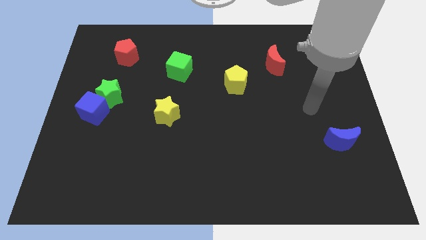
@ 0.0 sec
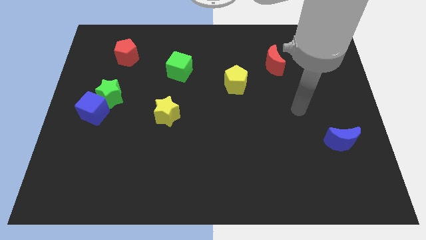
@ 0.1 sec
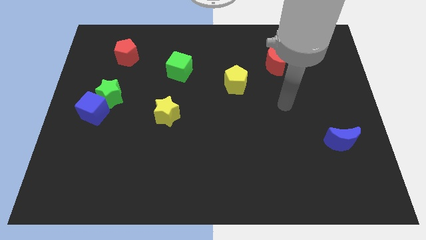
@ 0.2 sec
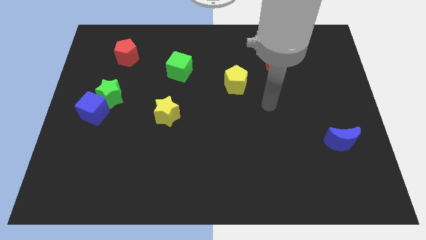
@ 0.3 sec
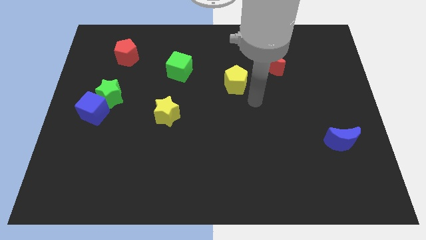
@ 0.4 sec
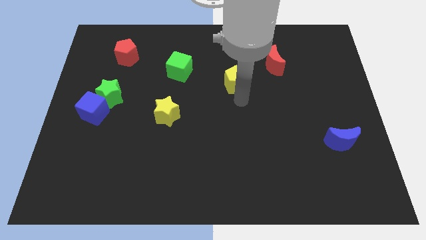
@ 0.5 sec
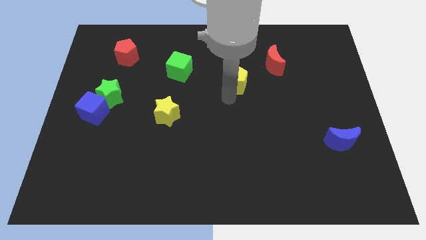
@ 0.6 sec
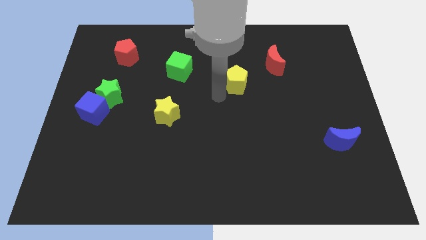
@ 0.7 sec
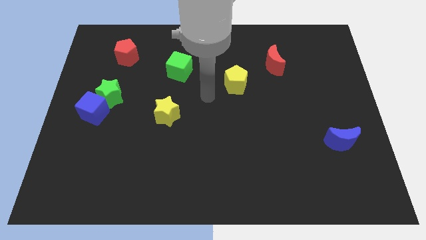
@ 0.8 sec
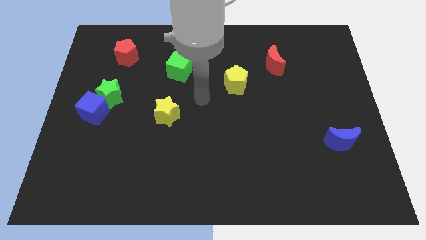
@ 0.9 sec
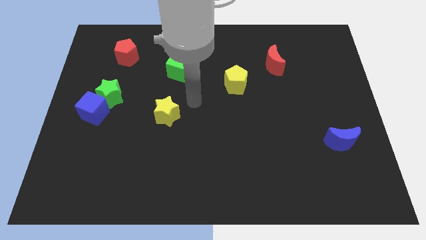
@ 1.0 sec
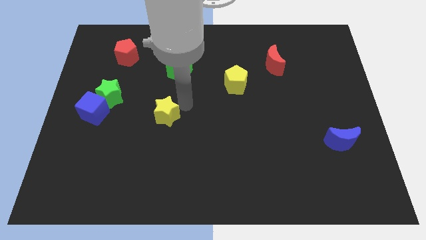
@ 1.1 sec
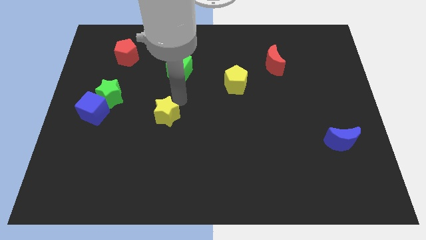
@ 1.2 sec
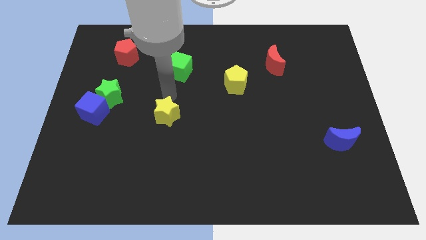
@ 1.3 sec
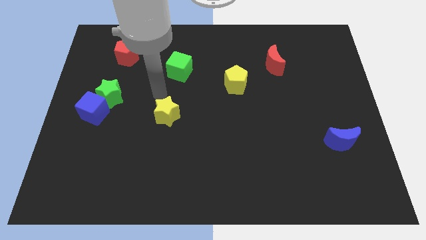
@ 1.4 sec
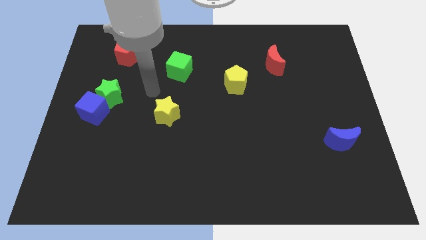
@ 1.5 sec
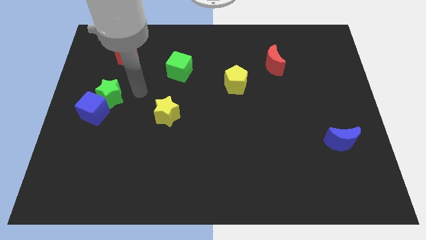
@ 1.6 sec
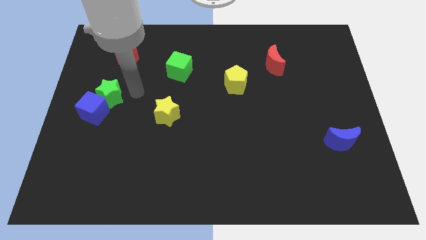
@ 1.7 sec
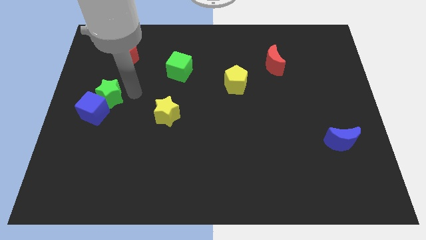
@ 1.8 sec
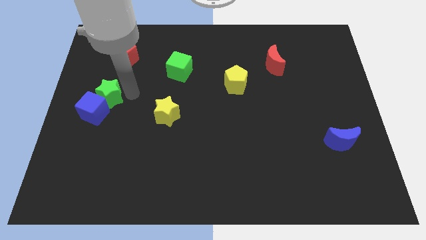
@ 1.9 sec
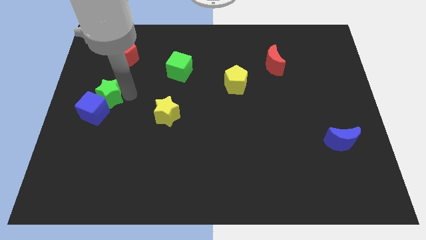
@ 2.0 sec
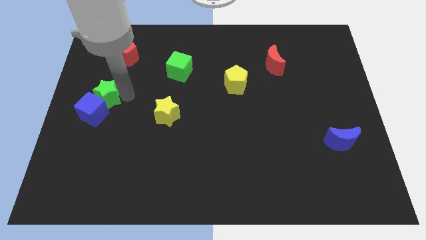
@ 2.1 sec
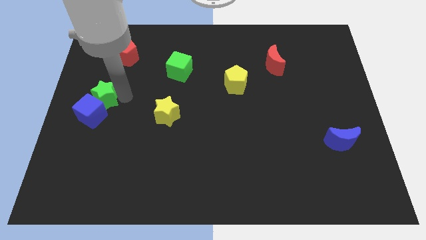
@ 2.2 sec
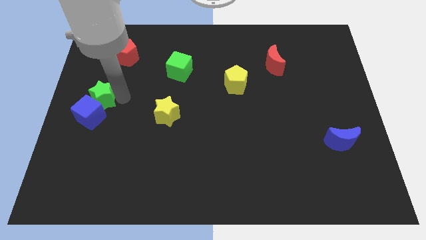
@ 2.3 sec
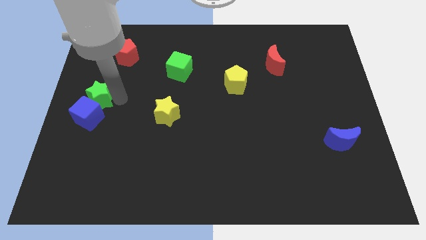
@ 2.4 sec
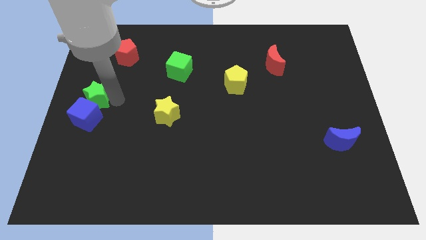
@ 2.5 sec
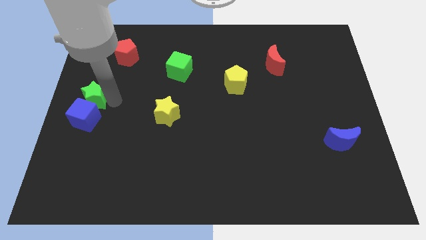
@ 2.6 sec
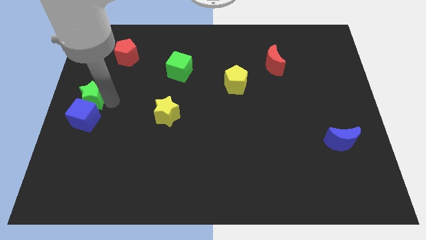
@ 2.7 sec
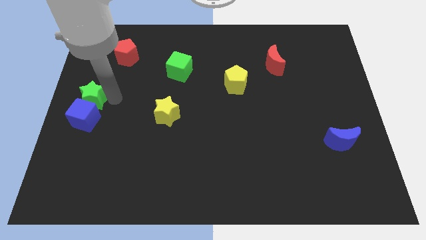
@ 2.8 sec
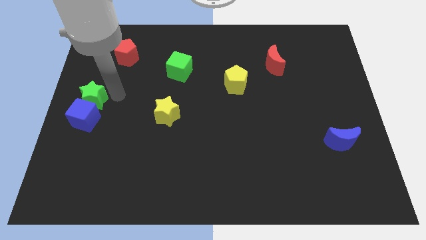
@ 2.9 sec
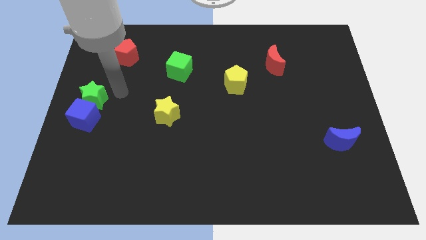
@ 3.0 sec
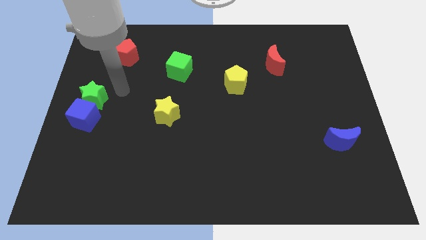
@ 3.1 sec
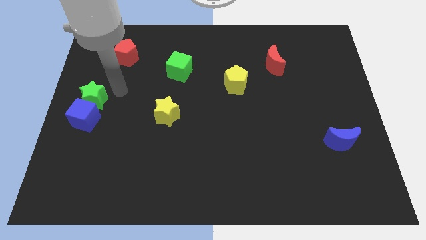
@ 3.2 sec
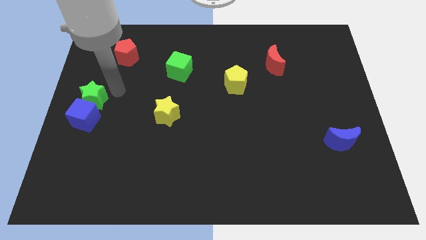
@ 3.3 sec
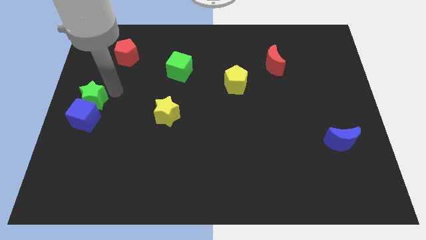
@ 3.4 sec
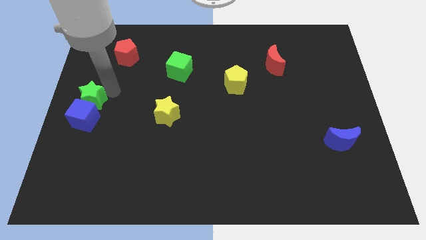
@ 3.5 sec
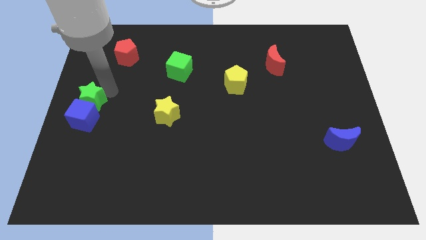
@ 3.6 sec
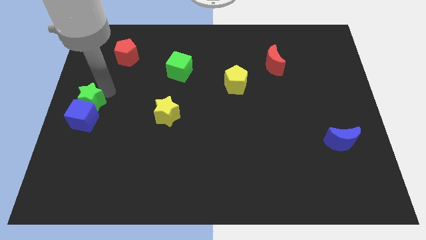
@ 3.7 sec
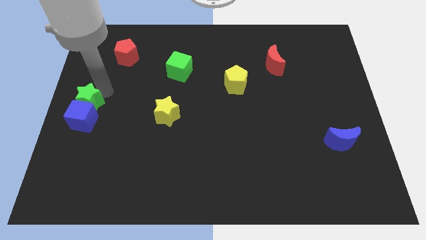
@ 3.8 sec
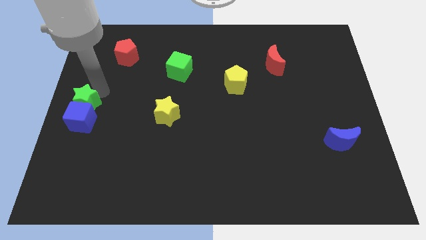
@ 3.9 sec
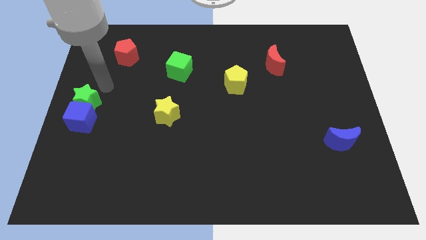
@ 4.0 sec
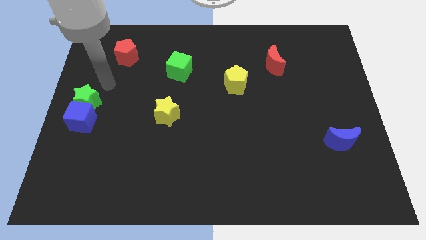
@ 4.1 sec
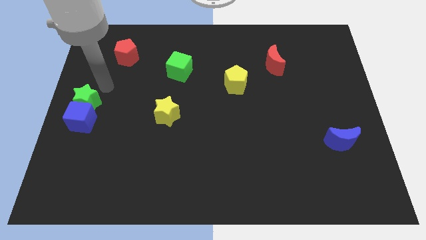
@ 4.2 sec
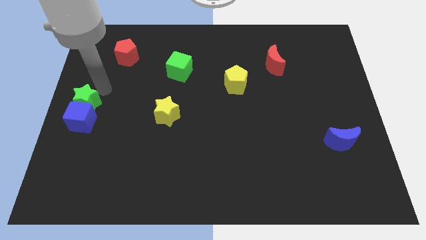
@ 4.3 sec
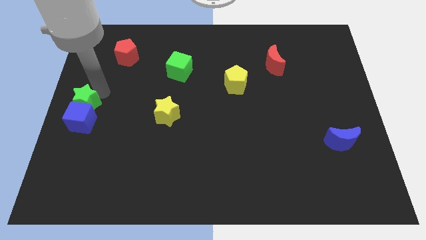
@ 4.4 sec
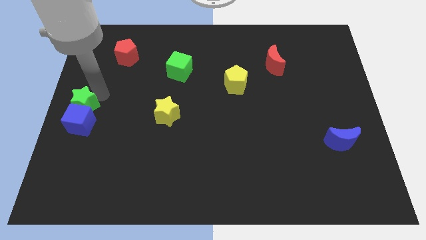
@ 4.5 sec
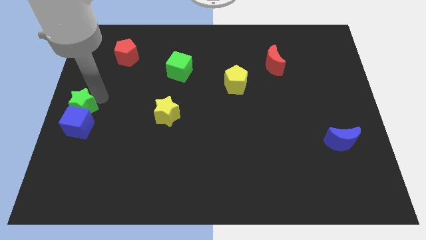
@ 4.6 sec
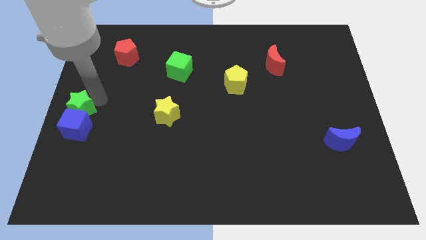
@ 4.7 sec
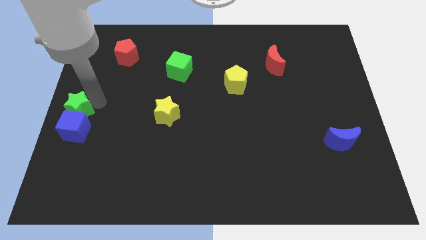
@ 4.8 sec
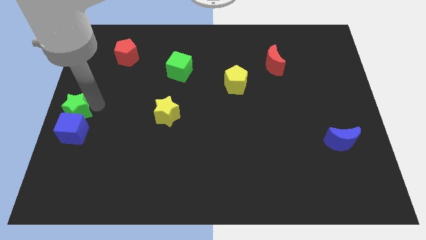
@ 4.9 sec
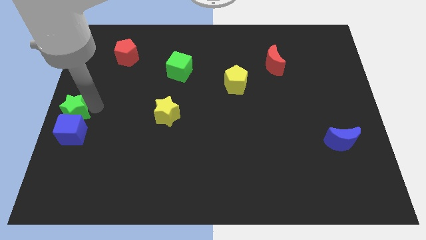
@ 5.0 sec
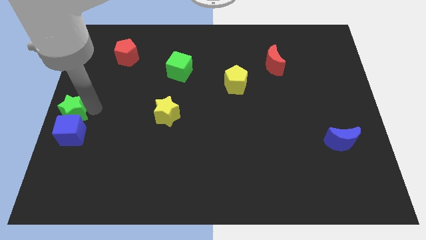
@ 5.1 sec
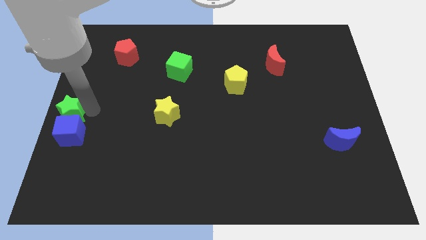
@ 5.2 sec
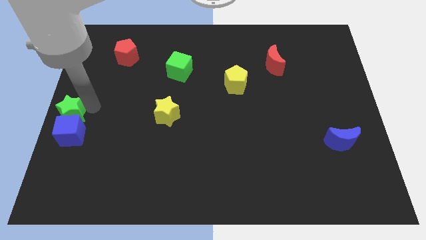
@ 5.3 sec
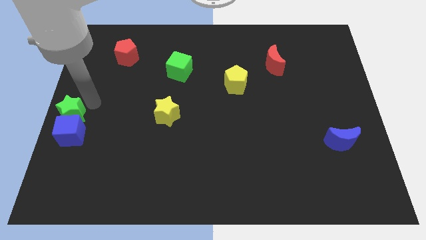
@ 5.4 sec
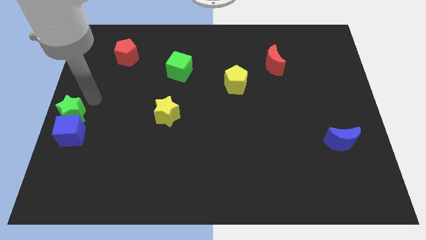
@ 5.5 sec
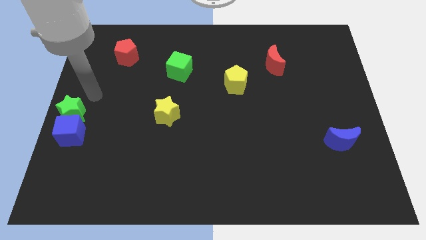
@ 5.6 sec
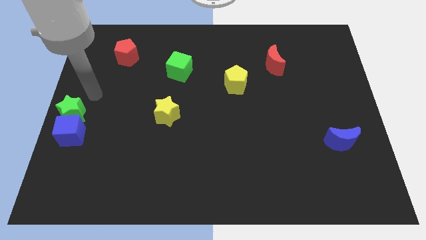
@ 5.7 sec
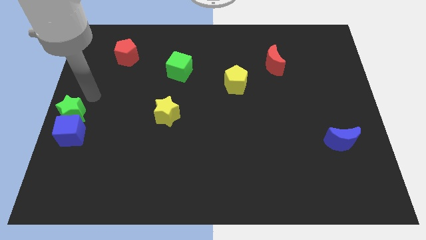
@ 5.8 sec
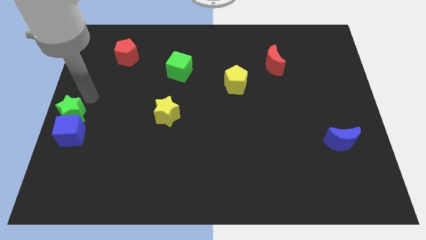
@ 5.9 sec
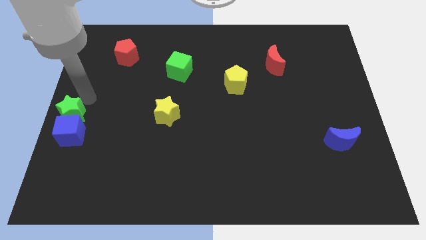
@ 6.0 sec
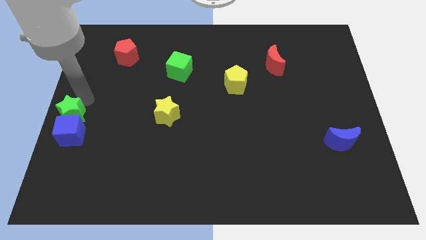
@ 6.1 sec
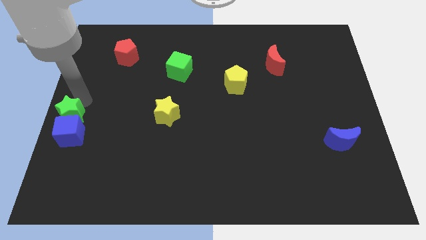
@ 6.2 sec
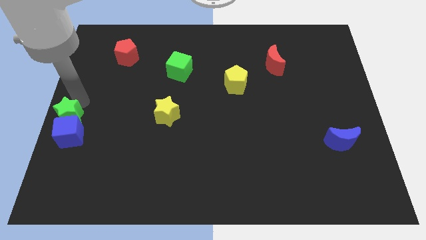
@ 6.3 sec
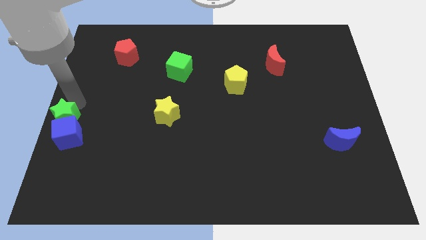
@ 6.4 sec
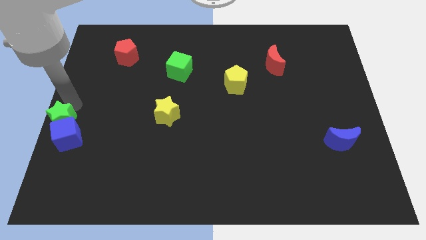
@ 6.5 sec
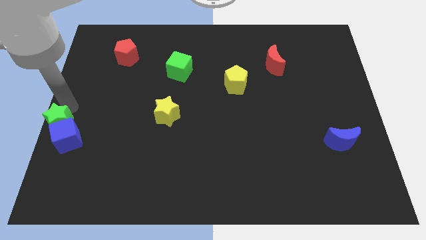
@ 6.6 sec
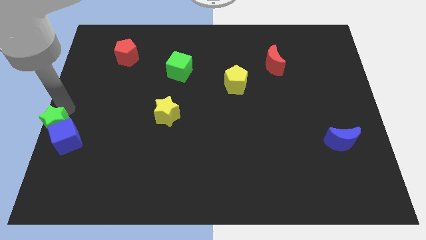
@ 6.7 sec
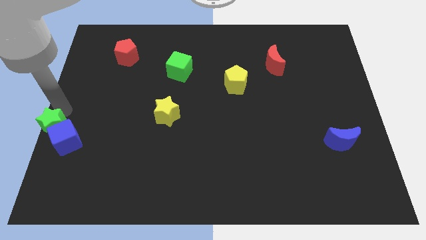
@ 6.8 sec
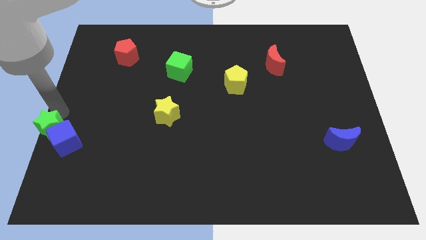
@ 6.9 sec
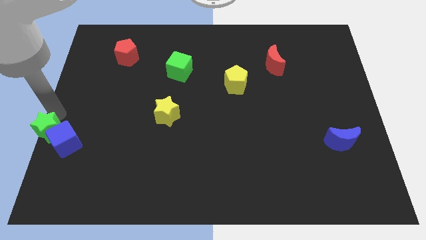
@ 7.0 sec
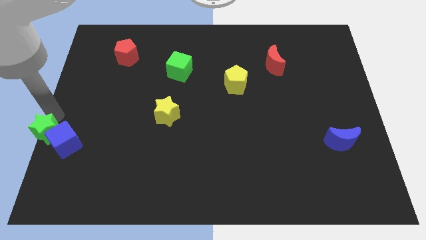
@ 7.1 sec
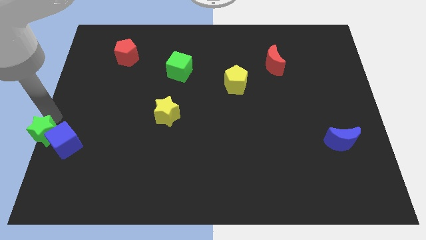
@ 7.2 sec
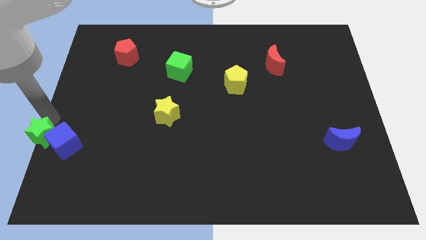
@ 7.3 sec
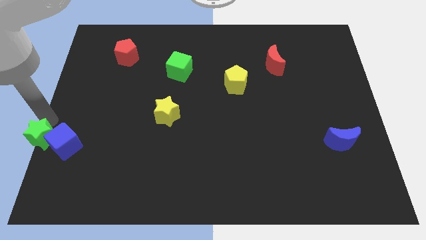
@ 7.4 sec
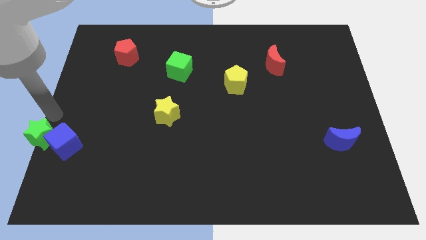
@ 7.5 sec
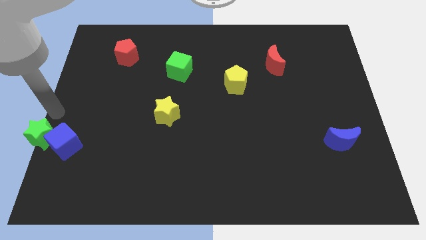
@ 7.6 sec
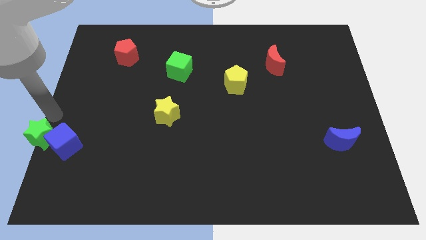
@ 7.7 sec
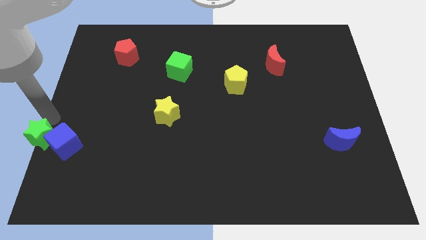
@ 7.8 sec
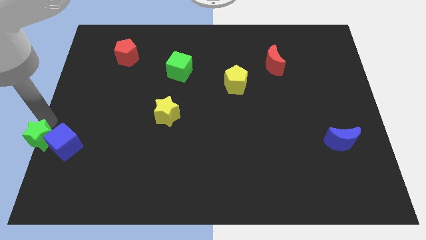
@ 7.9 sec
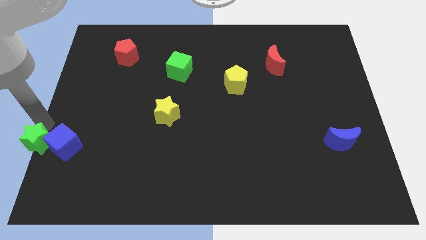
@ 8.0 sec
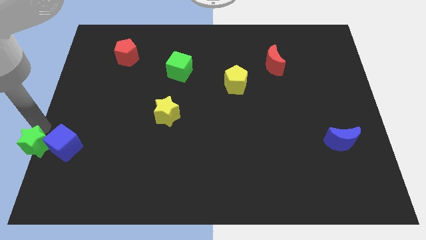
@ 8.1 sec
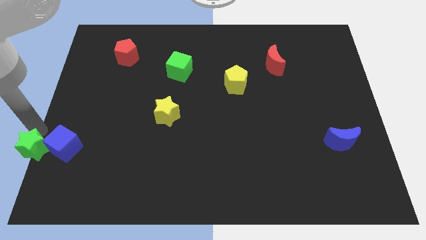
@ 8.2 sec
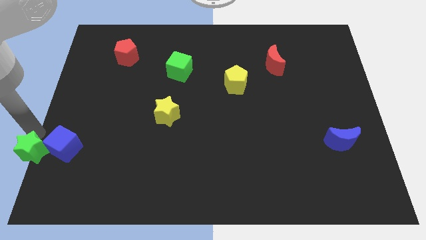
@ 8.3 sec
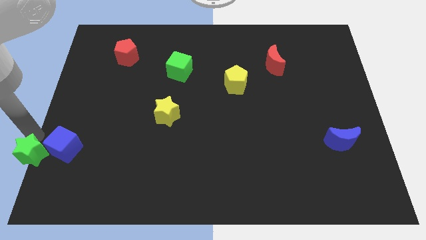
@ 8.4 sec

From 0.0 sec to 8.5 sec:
put the green star to the bottom left of the board
